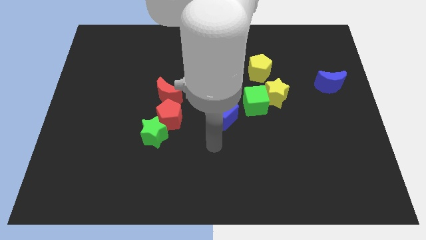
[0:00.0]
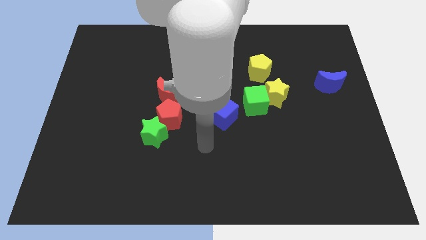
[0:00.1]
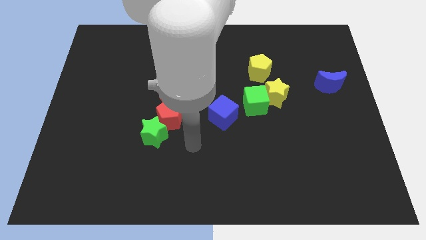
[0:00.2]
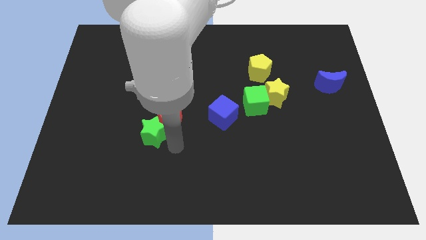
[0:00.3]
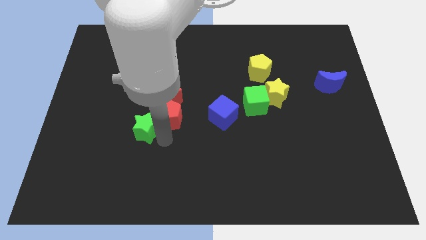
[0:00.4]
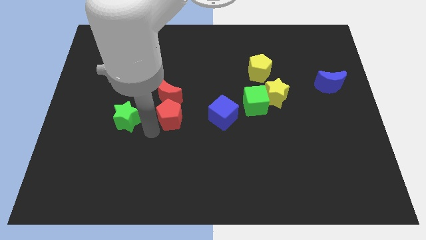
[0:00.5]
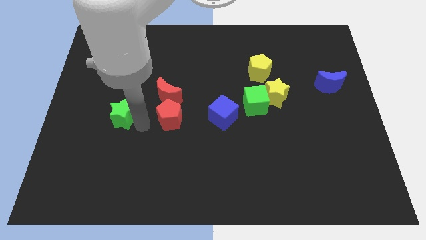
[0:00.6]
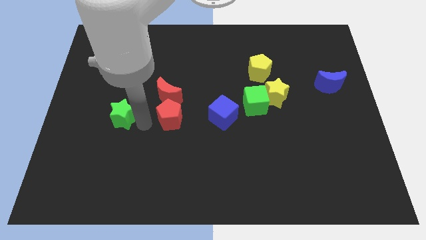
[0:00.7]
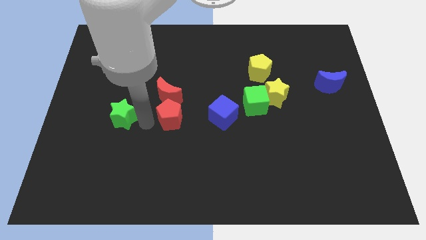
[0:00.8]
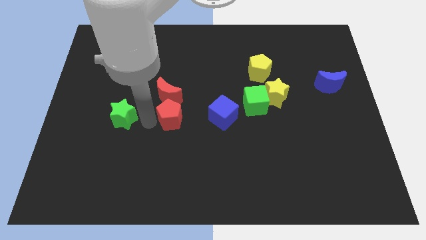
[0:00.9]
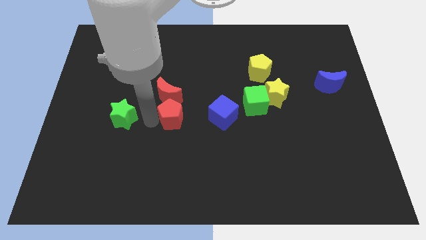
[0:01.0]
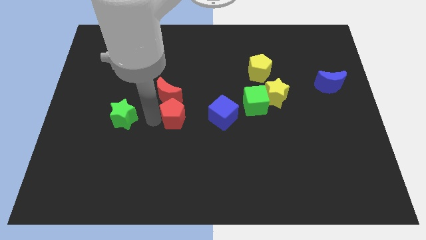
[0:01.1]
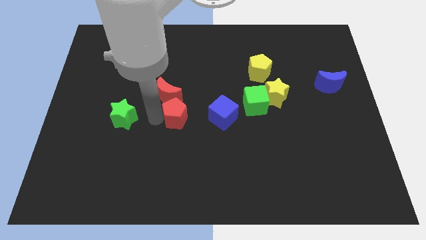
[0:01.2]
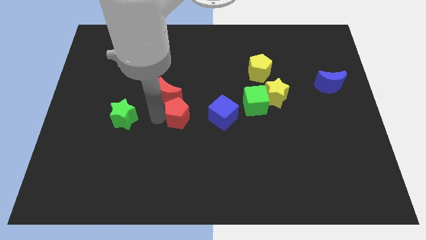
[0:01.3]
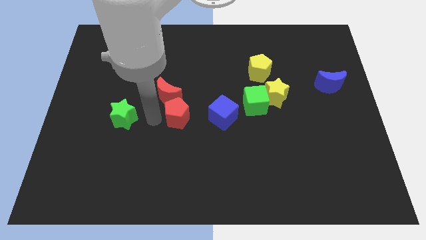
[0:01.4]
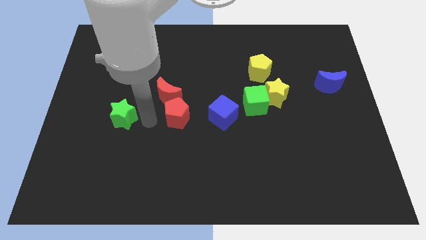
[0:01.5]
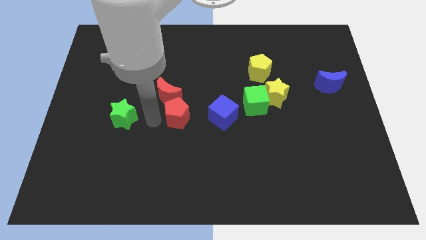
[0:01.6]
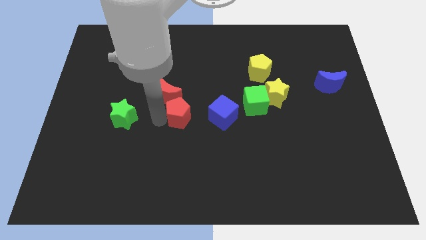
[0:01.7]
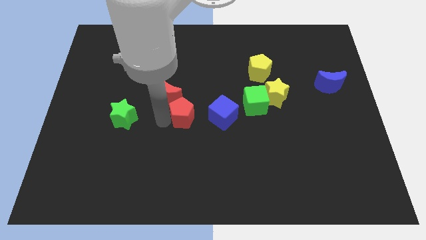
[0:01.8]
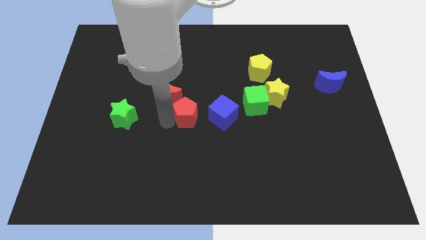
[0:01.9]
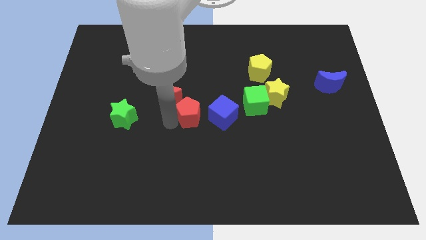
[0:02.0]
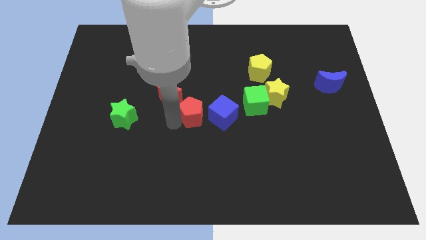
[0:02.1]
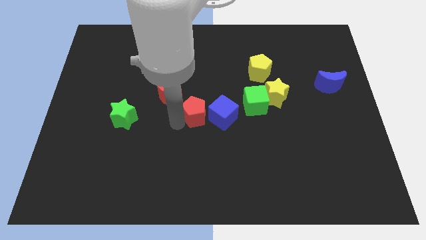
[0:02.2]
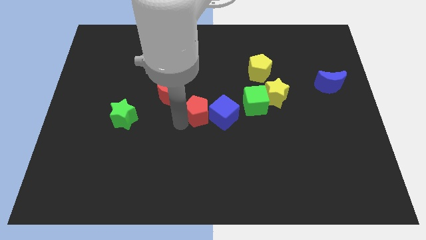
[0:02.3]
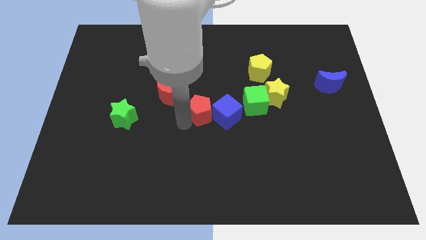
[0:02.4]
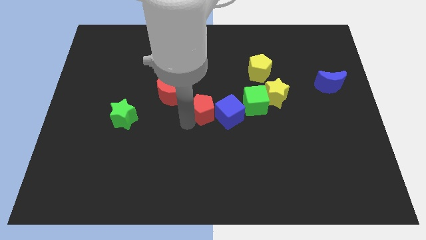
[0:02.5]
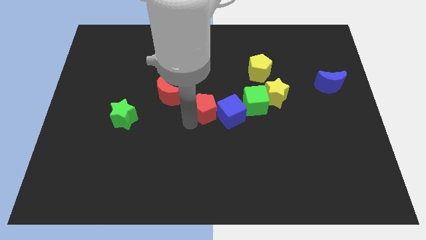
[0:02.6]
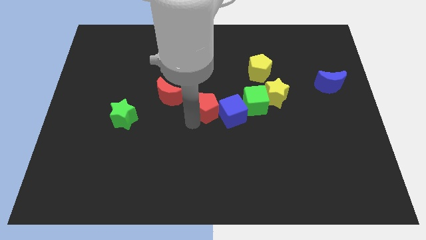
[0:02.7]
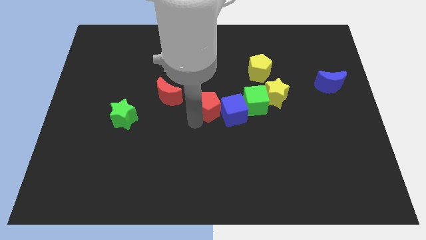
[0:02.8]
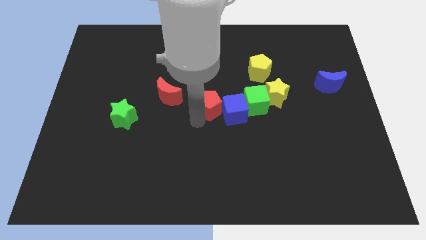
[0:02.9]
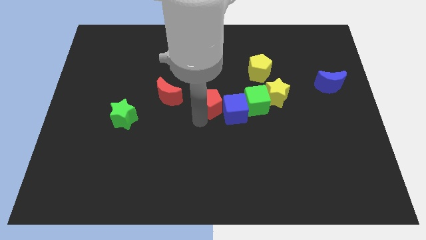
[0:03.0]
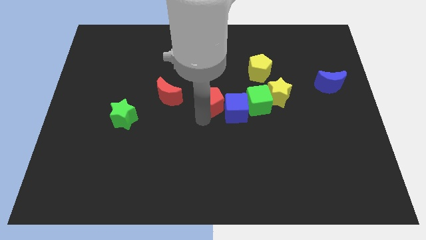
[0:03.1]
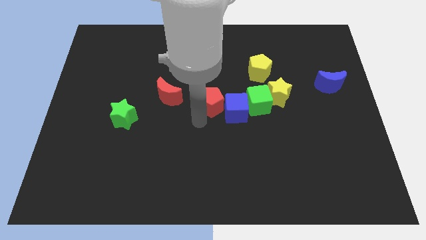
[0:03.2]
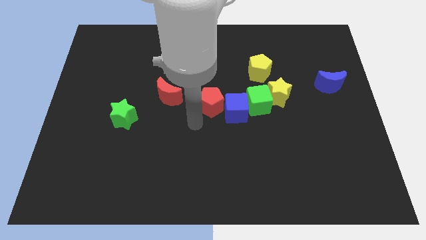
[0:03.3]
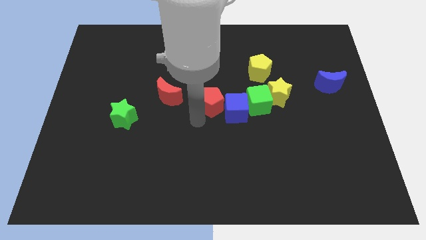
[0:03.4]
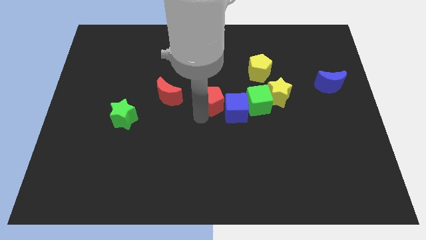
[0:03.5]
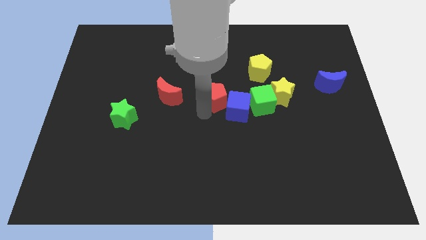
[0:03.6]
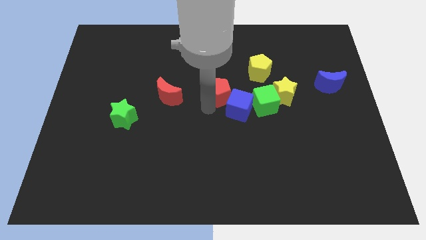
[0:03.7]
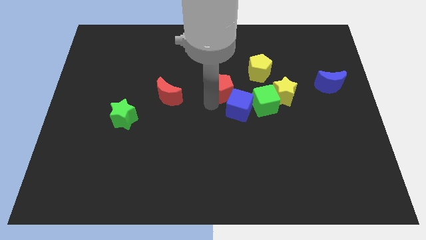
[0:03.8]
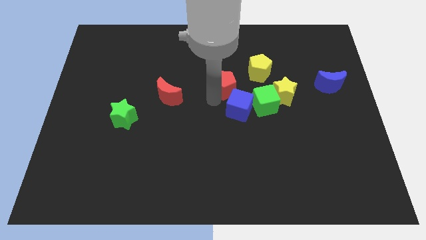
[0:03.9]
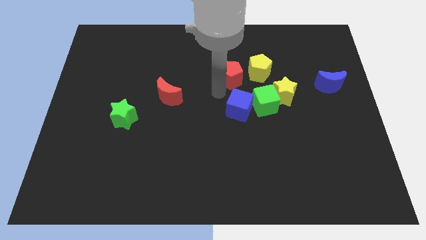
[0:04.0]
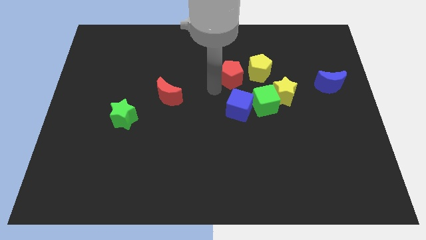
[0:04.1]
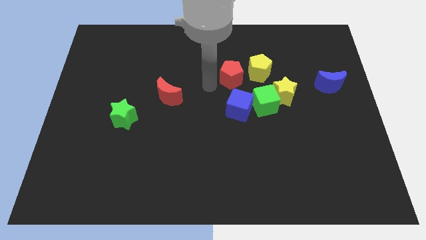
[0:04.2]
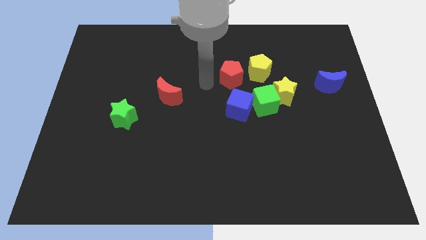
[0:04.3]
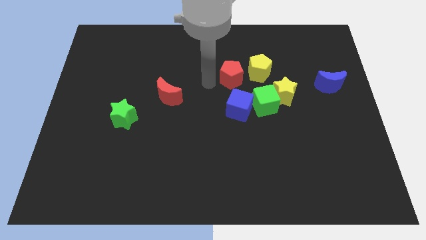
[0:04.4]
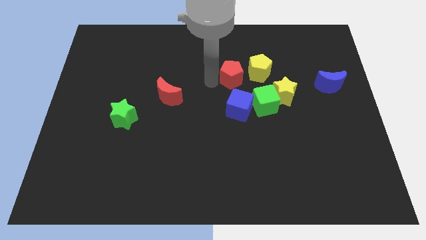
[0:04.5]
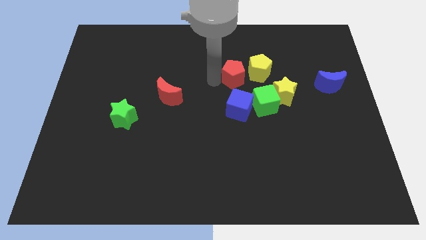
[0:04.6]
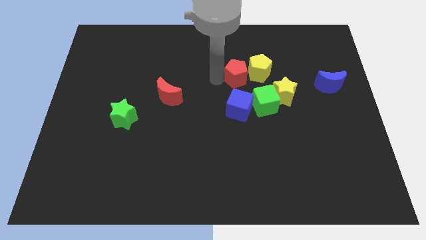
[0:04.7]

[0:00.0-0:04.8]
push the red pentagon next to the yellow pentagon

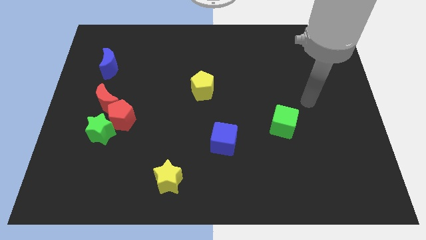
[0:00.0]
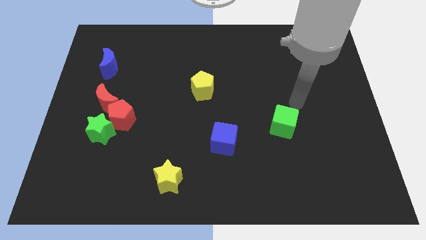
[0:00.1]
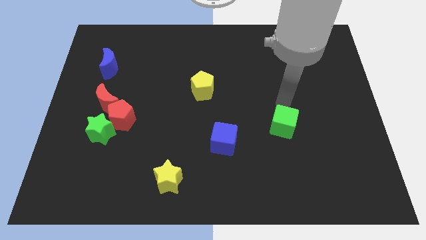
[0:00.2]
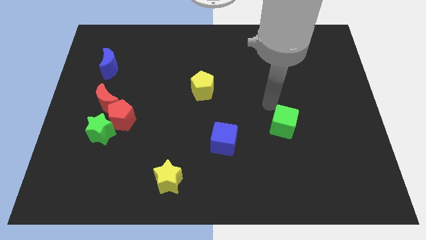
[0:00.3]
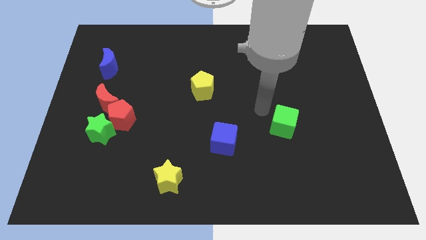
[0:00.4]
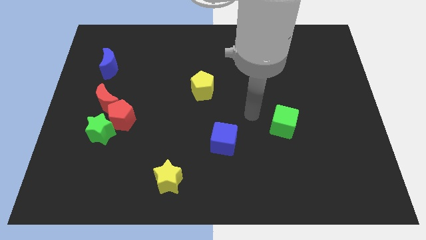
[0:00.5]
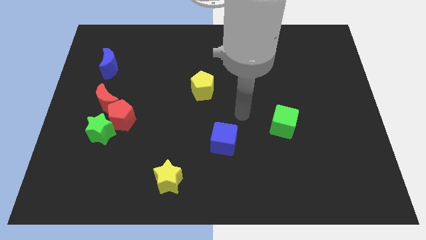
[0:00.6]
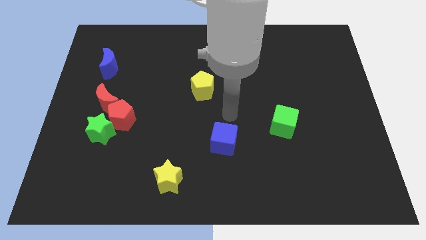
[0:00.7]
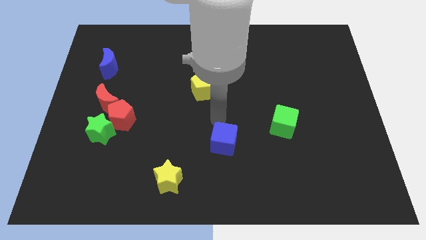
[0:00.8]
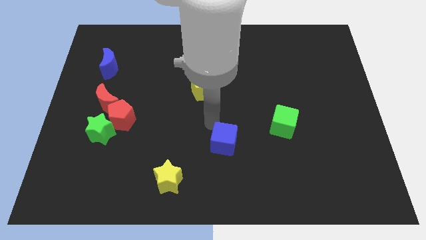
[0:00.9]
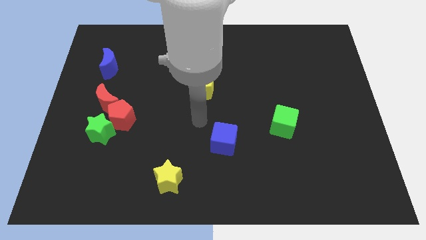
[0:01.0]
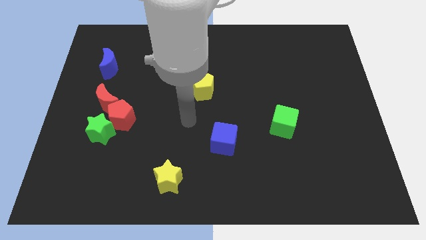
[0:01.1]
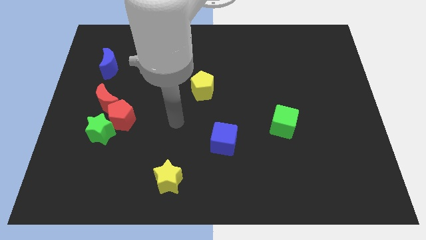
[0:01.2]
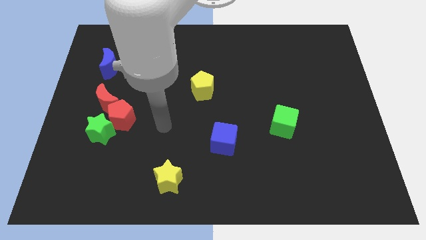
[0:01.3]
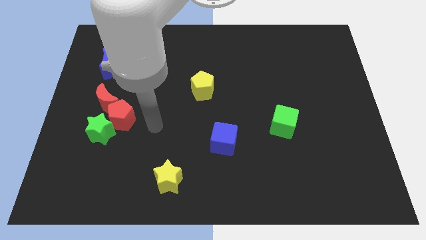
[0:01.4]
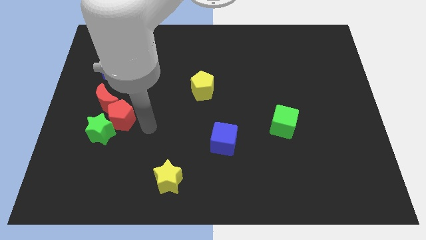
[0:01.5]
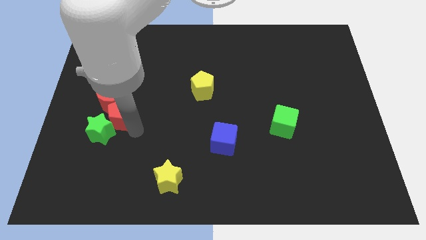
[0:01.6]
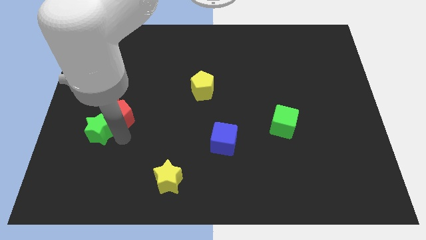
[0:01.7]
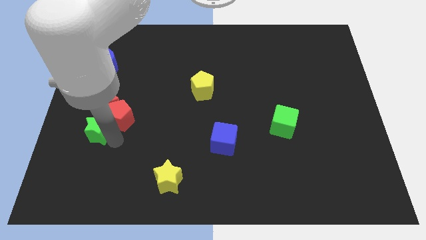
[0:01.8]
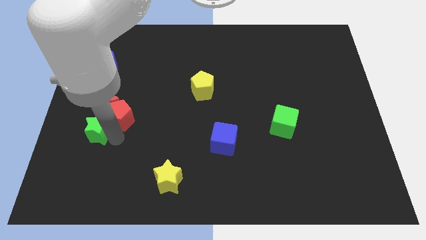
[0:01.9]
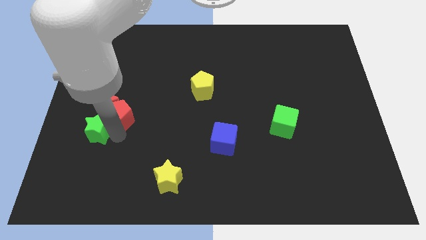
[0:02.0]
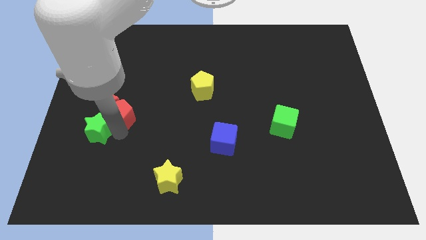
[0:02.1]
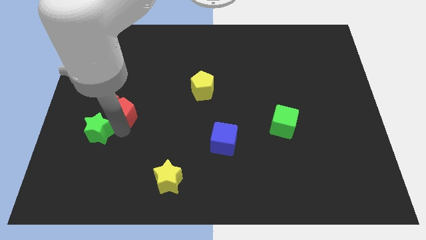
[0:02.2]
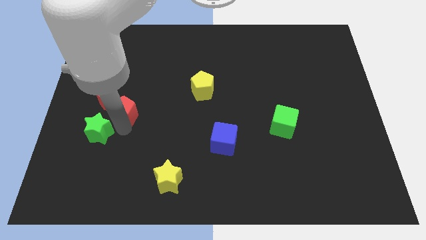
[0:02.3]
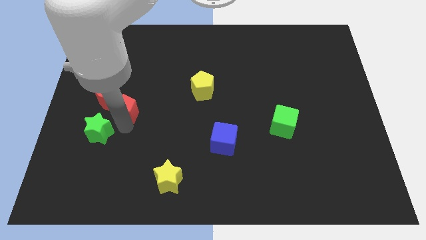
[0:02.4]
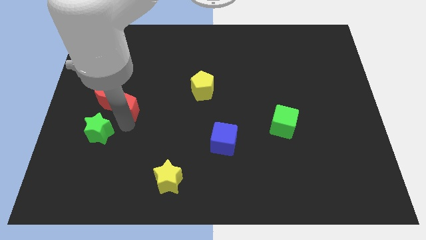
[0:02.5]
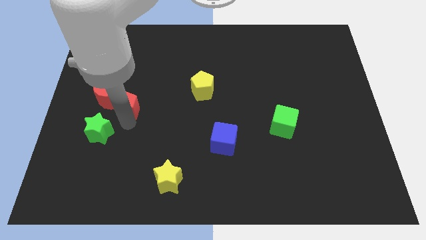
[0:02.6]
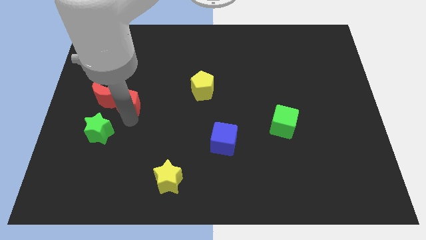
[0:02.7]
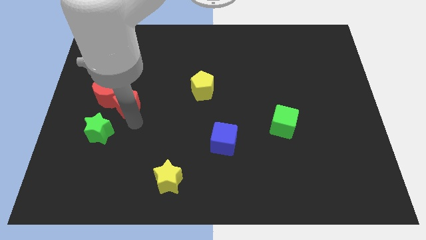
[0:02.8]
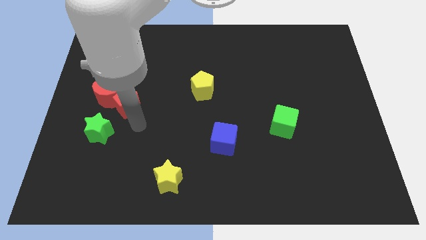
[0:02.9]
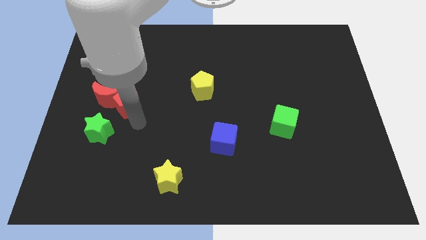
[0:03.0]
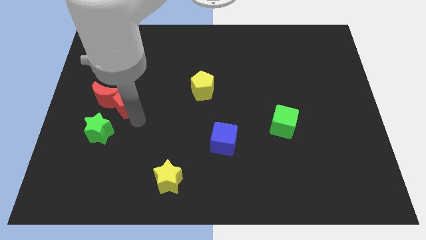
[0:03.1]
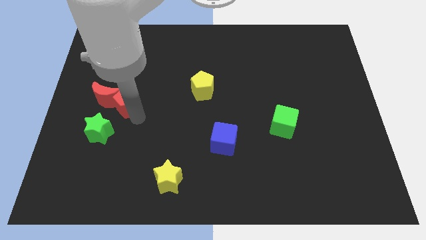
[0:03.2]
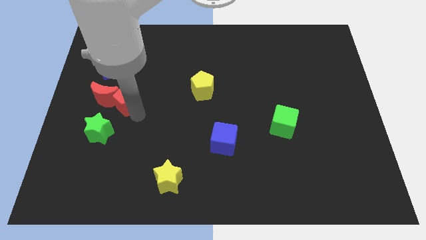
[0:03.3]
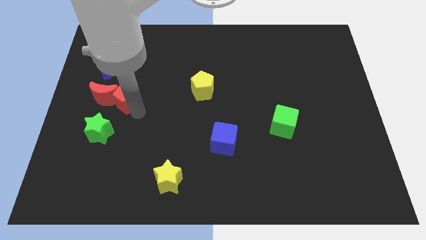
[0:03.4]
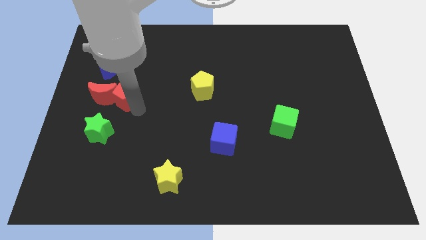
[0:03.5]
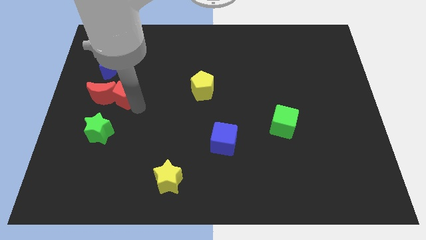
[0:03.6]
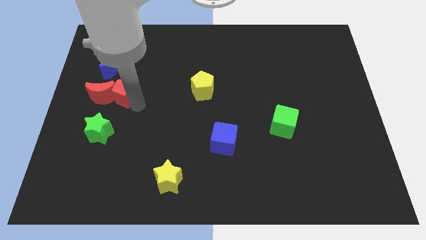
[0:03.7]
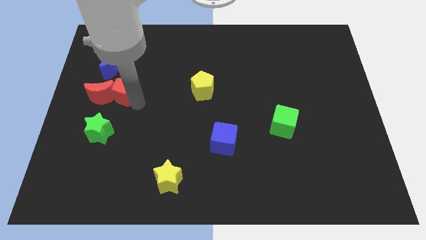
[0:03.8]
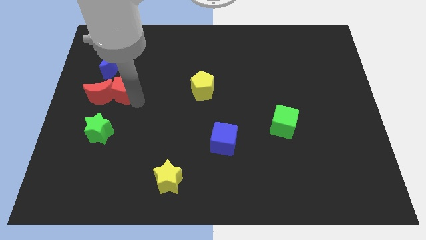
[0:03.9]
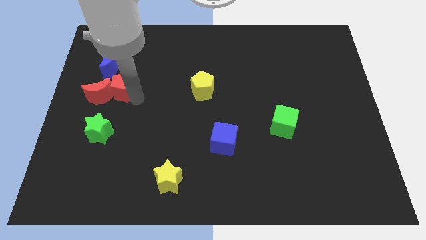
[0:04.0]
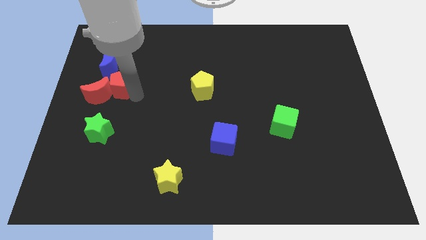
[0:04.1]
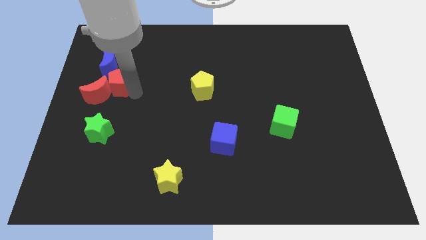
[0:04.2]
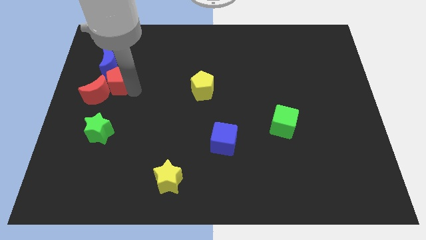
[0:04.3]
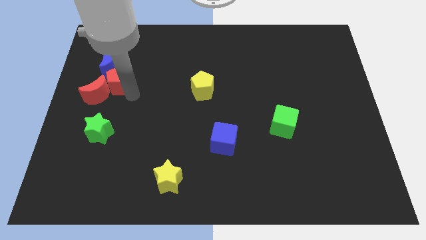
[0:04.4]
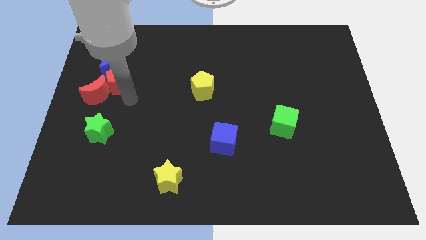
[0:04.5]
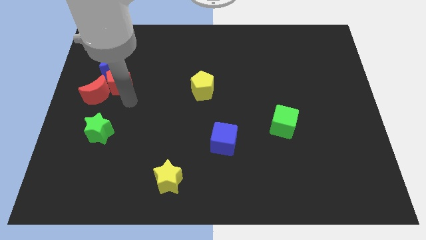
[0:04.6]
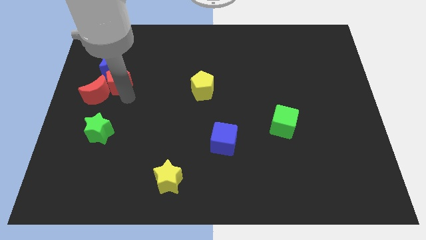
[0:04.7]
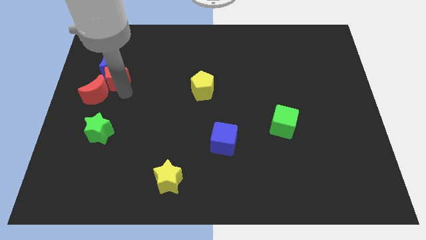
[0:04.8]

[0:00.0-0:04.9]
push the red pentagon towards the blue moon
